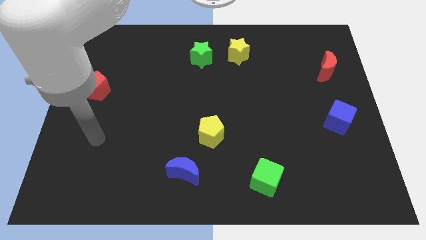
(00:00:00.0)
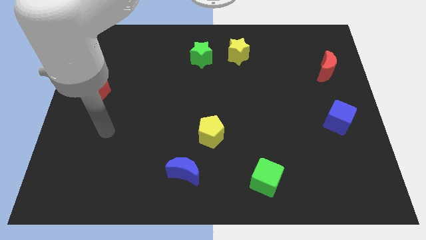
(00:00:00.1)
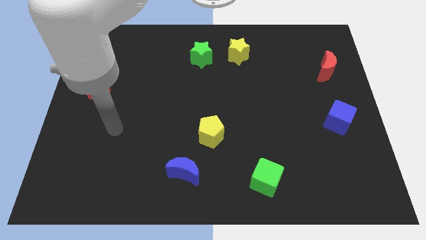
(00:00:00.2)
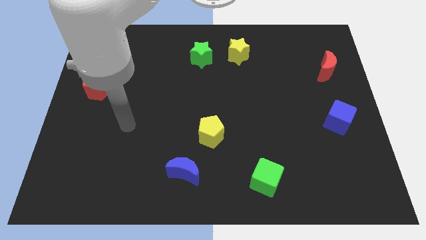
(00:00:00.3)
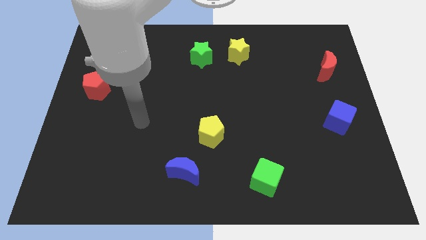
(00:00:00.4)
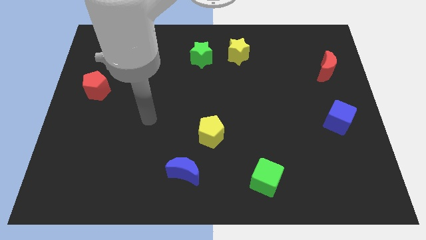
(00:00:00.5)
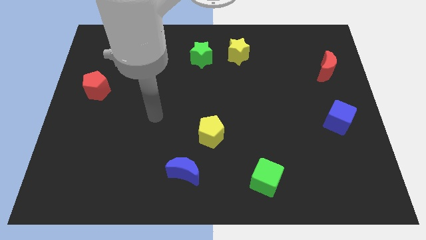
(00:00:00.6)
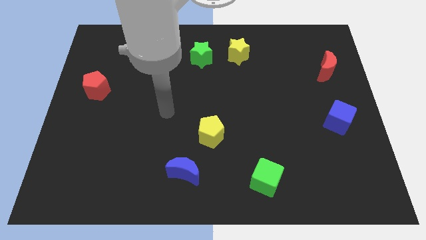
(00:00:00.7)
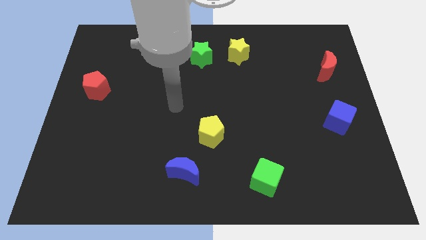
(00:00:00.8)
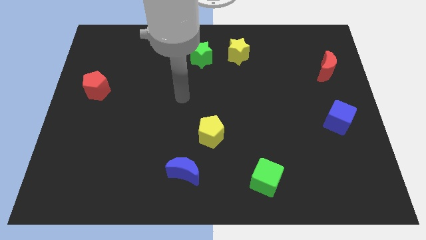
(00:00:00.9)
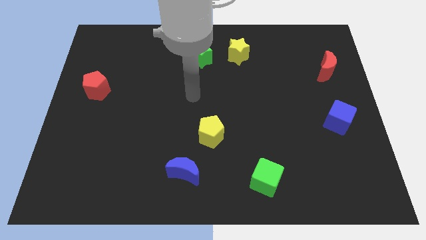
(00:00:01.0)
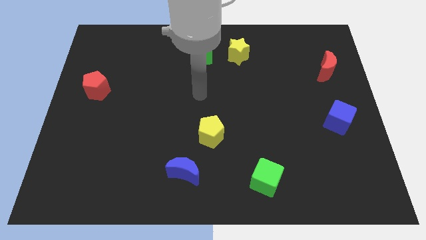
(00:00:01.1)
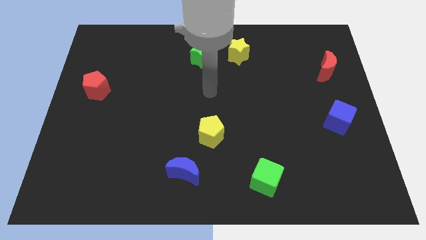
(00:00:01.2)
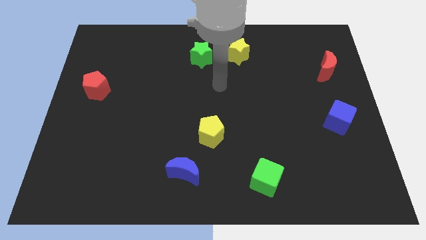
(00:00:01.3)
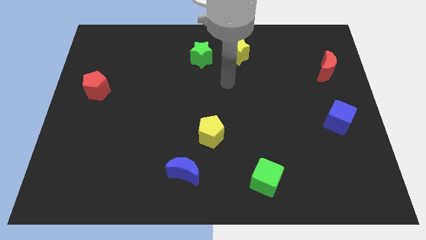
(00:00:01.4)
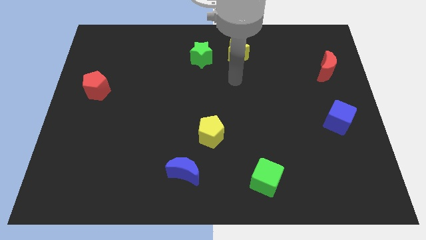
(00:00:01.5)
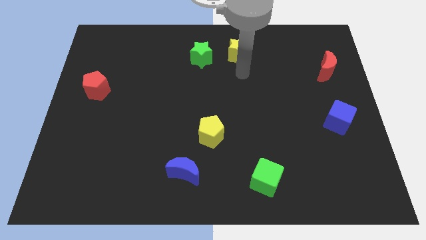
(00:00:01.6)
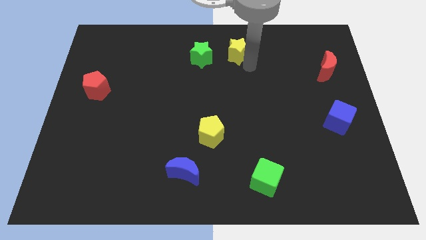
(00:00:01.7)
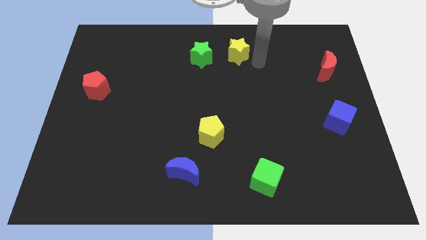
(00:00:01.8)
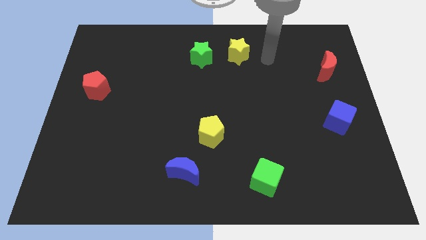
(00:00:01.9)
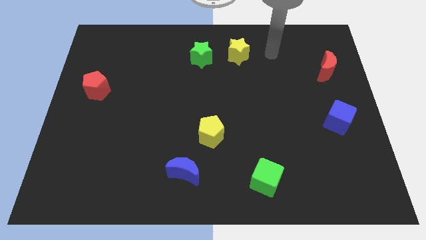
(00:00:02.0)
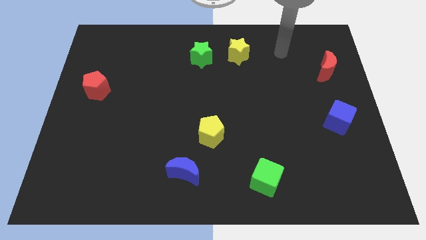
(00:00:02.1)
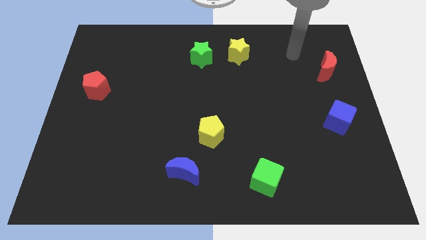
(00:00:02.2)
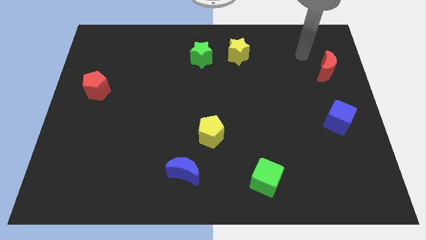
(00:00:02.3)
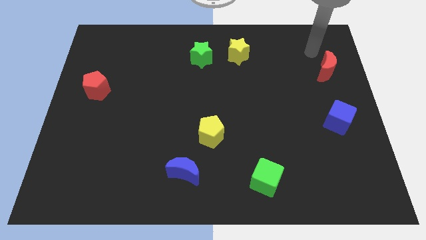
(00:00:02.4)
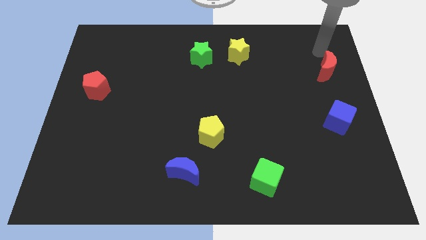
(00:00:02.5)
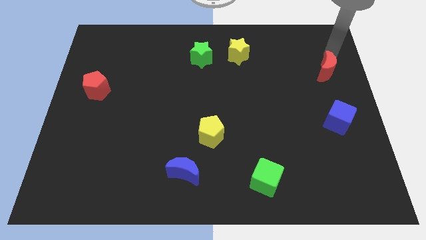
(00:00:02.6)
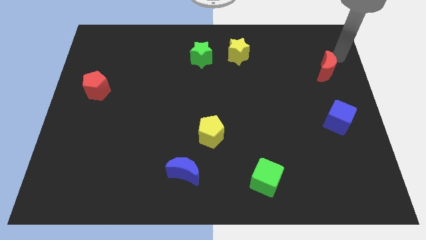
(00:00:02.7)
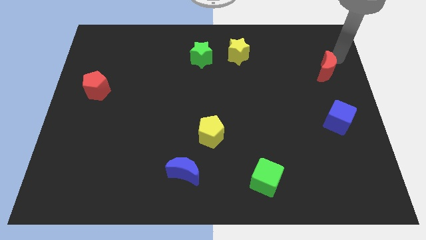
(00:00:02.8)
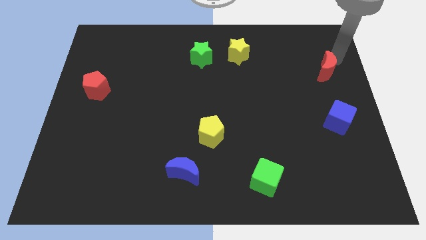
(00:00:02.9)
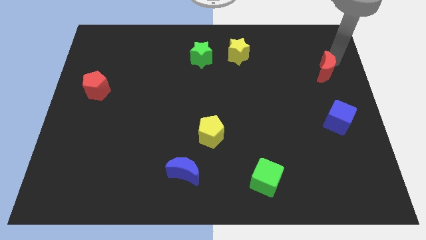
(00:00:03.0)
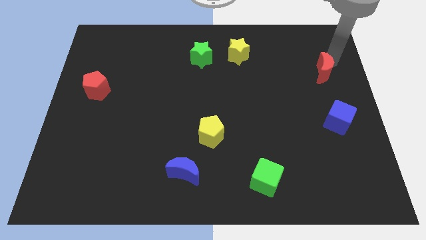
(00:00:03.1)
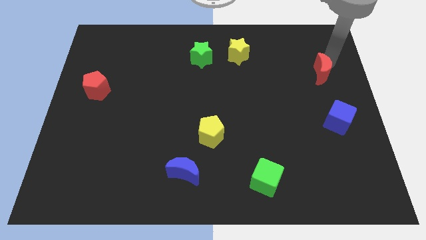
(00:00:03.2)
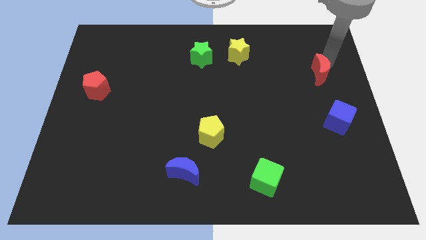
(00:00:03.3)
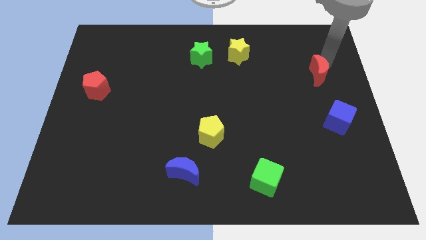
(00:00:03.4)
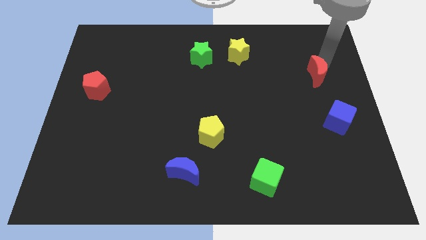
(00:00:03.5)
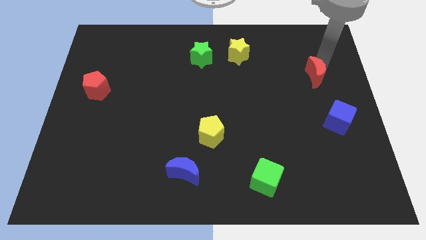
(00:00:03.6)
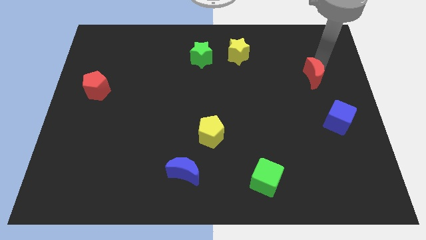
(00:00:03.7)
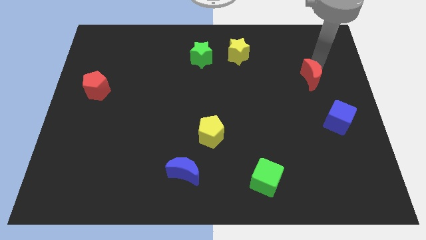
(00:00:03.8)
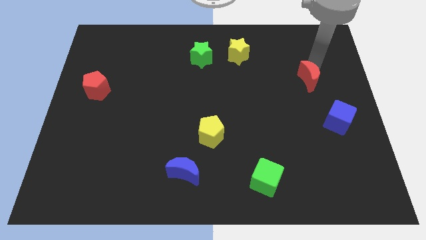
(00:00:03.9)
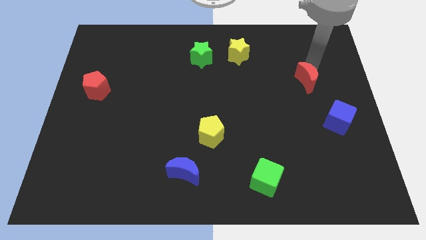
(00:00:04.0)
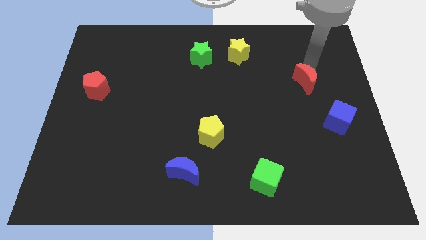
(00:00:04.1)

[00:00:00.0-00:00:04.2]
move the red moon a little bit diagonally downwards and left

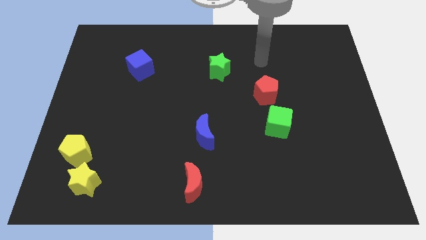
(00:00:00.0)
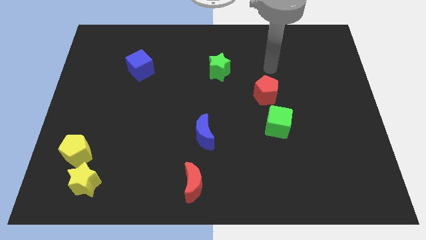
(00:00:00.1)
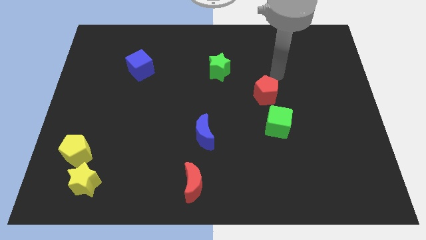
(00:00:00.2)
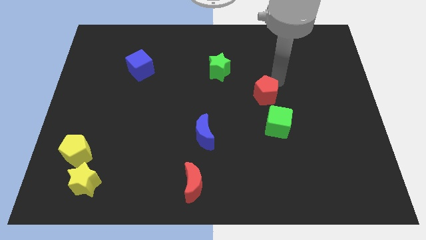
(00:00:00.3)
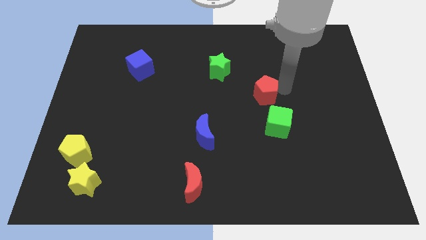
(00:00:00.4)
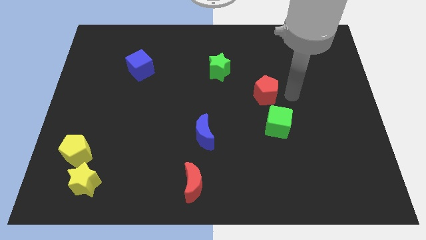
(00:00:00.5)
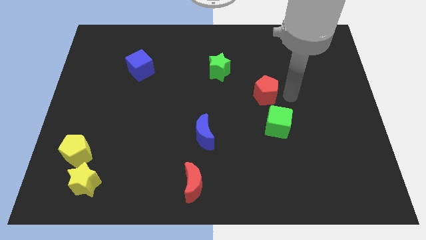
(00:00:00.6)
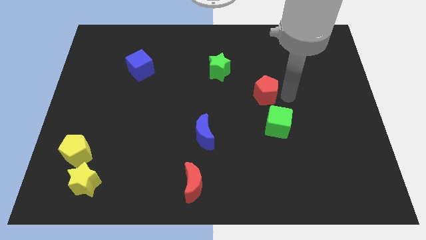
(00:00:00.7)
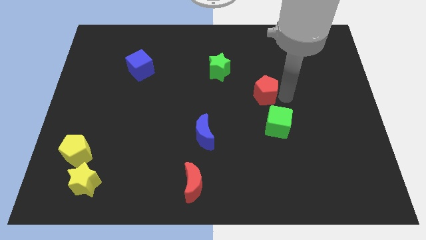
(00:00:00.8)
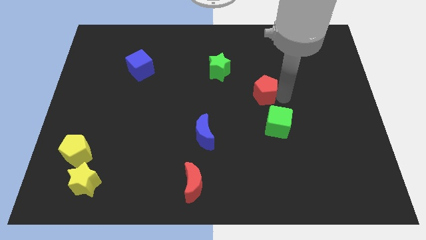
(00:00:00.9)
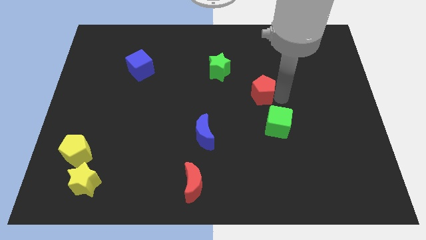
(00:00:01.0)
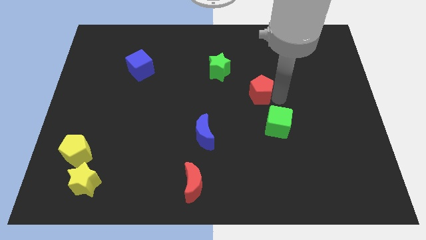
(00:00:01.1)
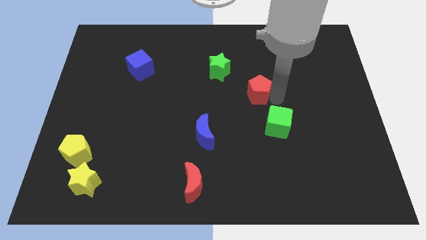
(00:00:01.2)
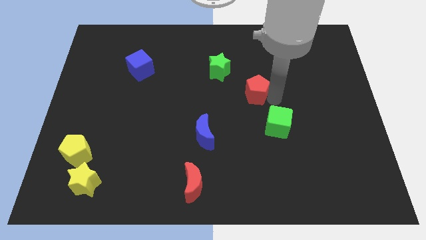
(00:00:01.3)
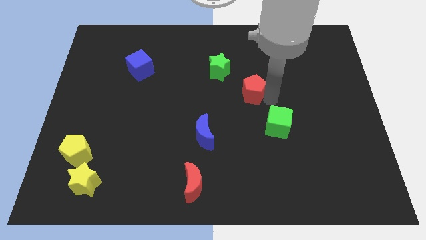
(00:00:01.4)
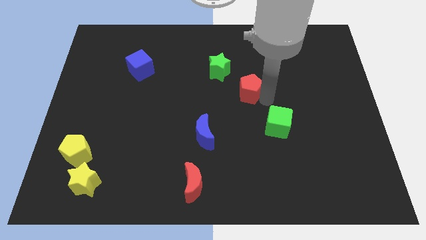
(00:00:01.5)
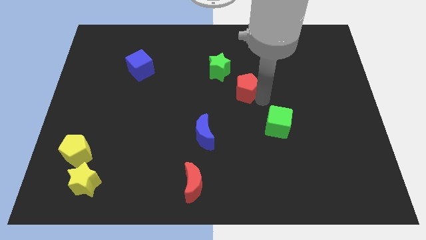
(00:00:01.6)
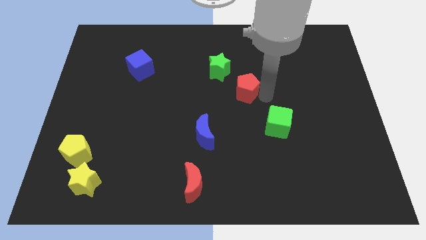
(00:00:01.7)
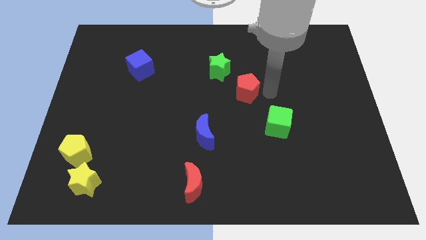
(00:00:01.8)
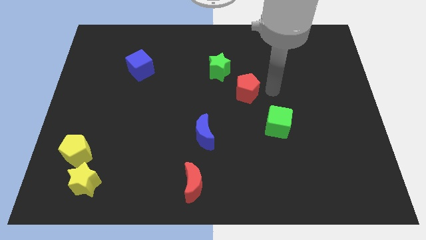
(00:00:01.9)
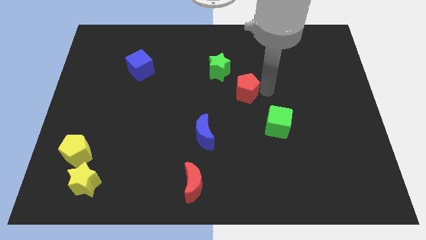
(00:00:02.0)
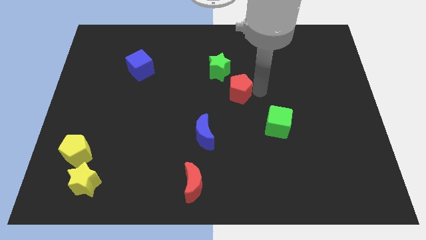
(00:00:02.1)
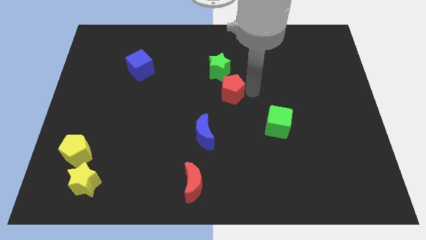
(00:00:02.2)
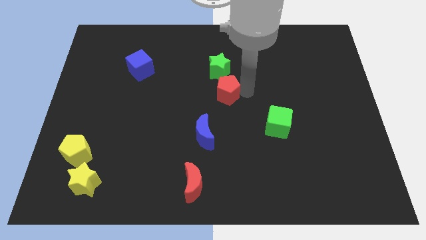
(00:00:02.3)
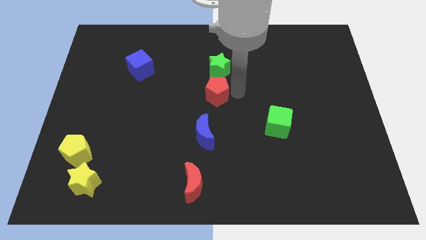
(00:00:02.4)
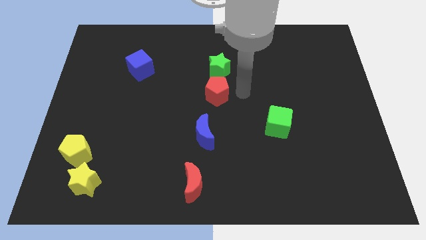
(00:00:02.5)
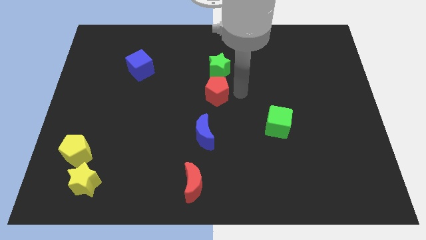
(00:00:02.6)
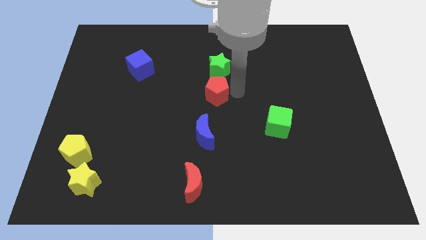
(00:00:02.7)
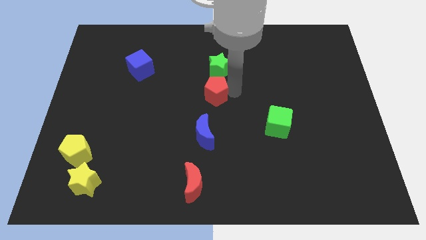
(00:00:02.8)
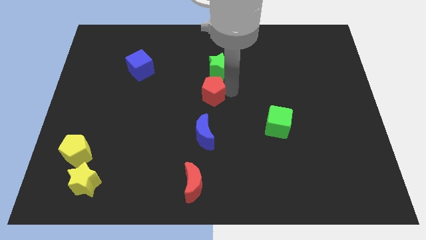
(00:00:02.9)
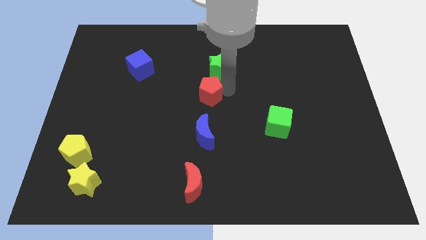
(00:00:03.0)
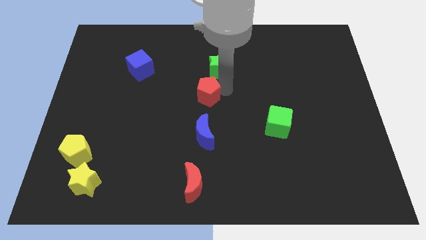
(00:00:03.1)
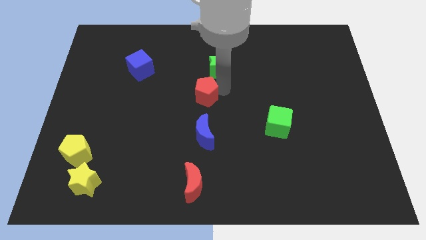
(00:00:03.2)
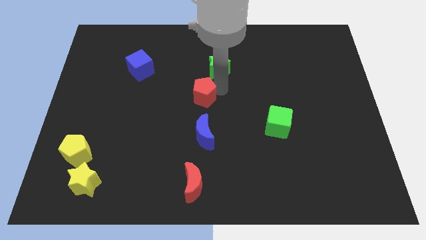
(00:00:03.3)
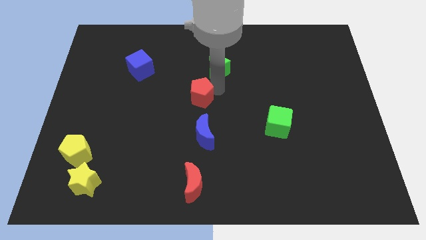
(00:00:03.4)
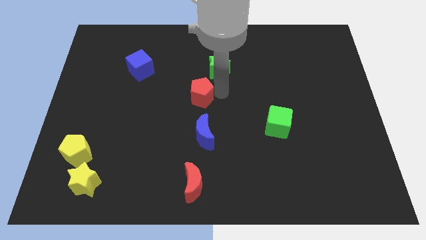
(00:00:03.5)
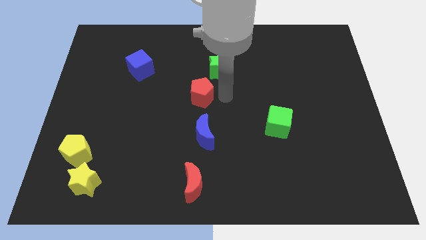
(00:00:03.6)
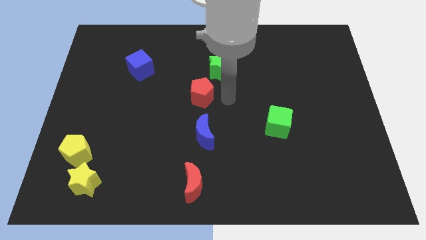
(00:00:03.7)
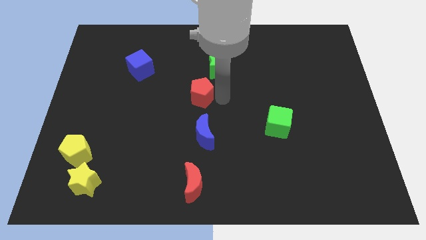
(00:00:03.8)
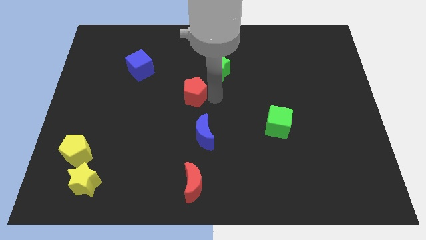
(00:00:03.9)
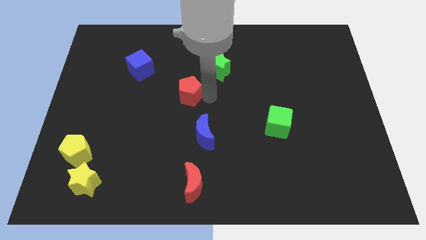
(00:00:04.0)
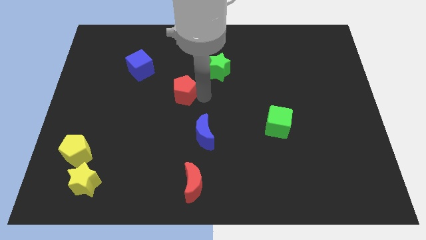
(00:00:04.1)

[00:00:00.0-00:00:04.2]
push the red pentagon to the left
